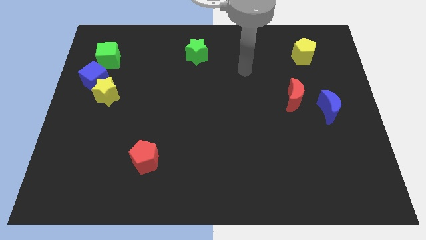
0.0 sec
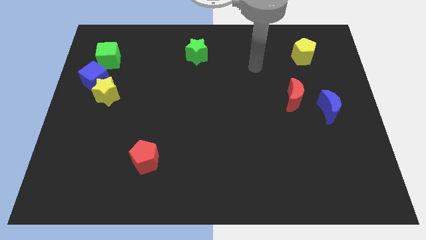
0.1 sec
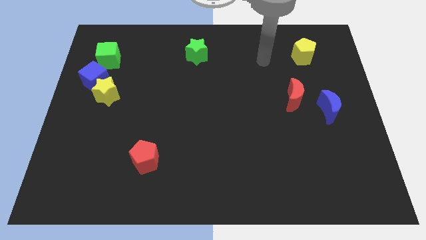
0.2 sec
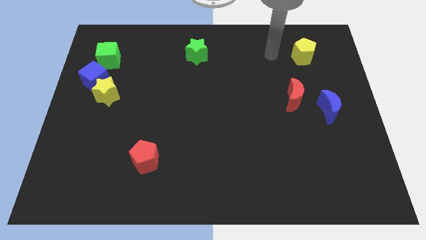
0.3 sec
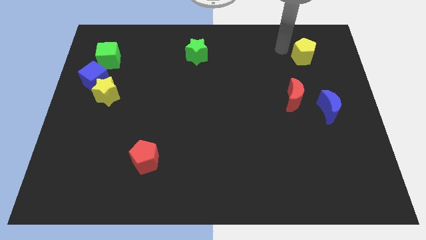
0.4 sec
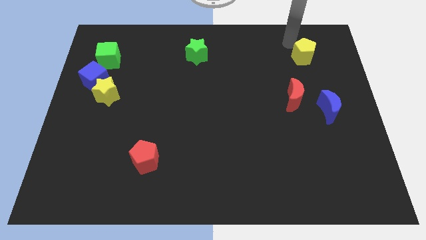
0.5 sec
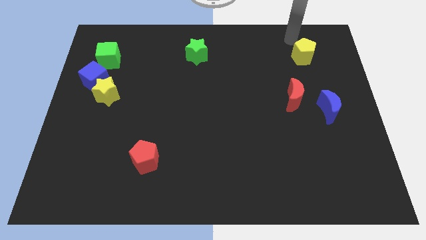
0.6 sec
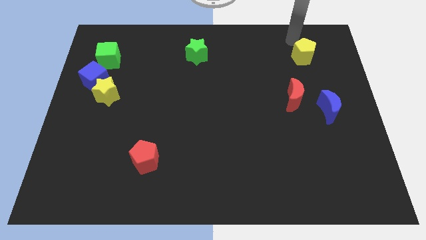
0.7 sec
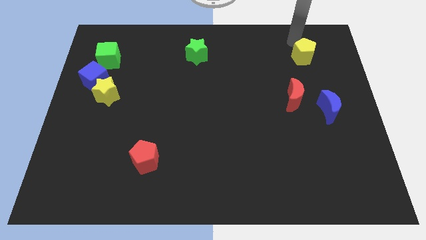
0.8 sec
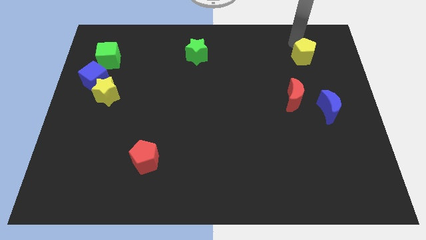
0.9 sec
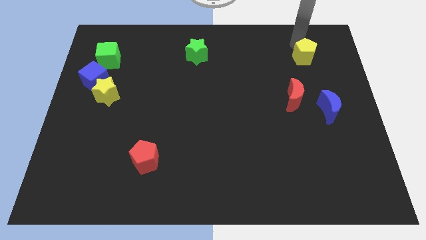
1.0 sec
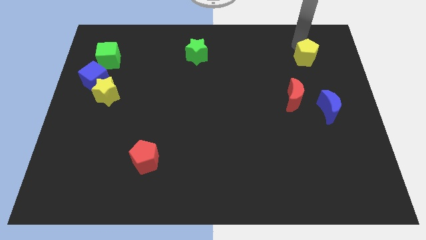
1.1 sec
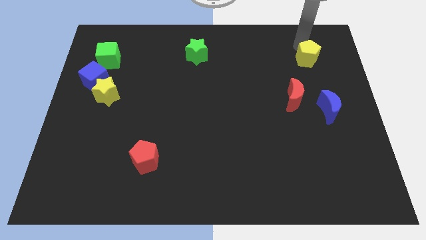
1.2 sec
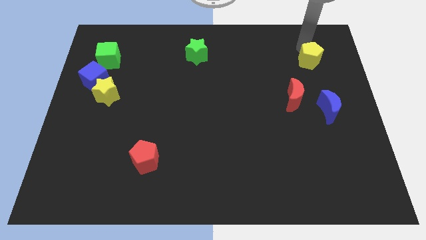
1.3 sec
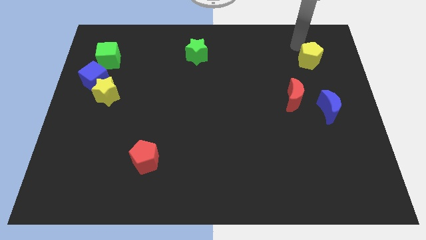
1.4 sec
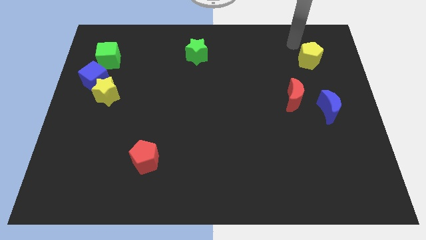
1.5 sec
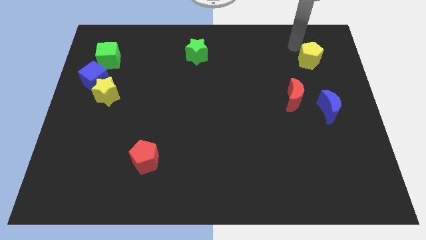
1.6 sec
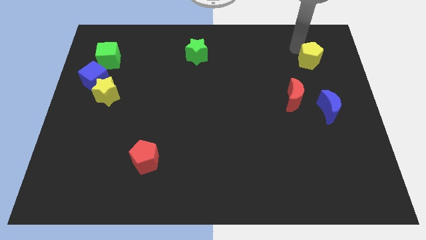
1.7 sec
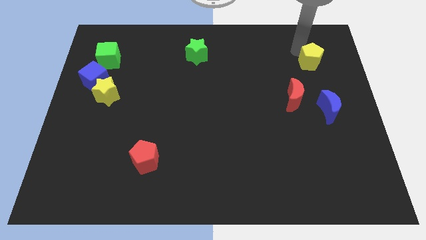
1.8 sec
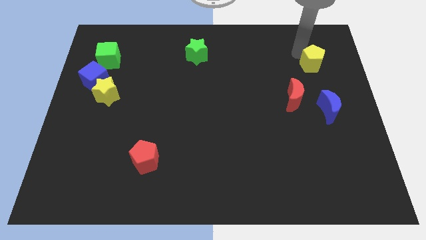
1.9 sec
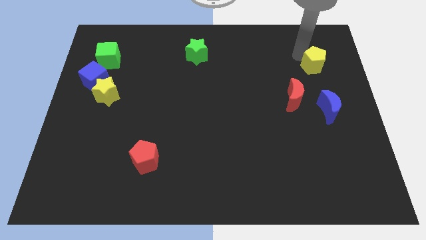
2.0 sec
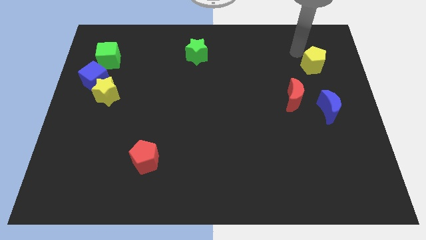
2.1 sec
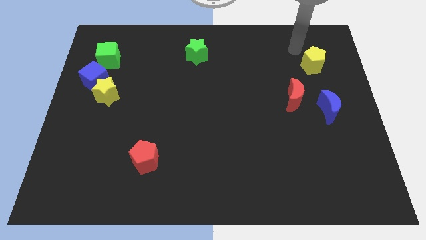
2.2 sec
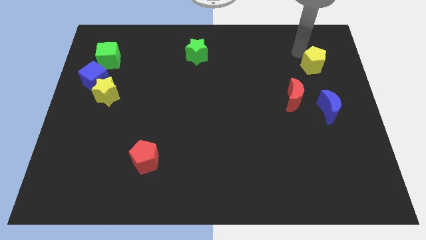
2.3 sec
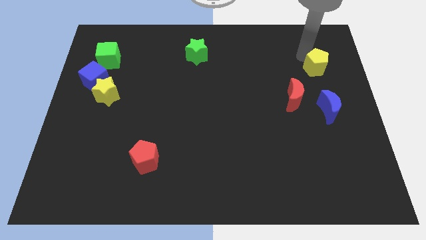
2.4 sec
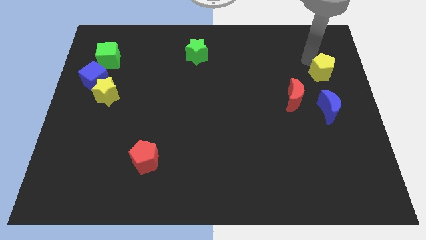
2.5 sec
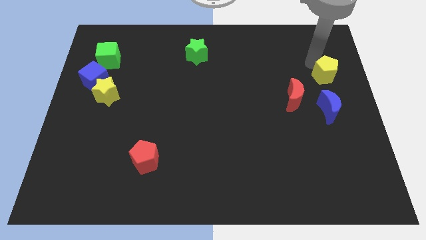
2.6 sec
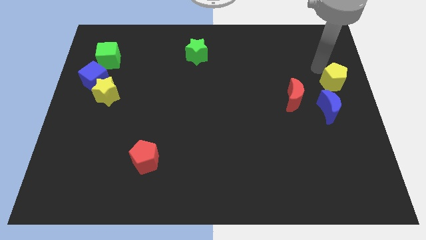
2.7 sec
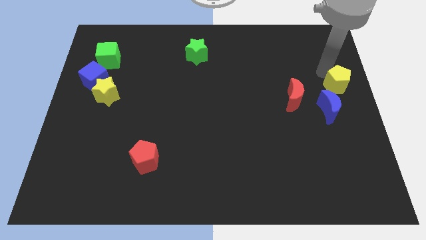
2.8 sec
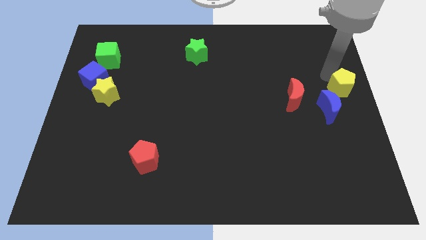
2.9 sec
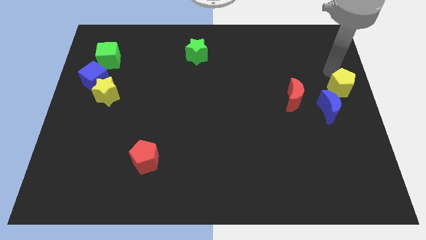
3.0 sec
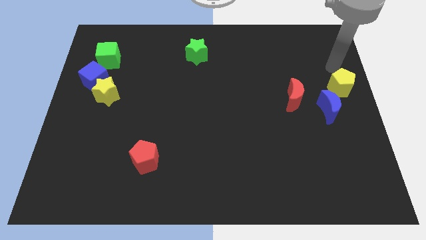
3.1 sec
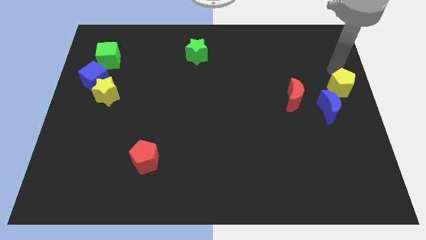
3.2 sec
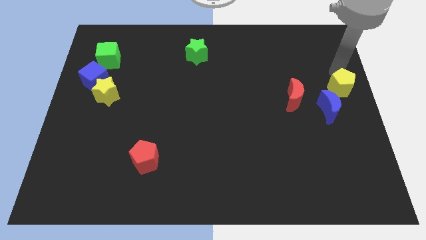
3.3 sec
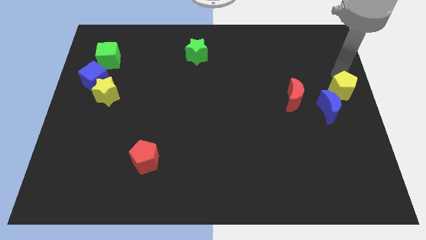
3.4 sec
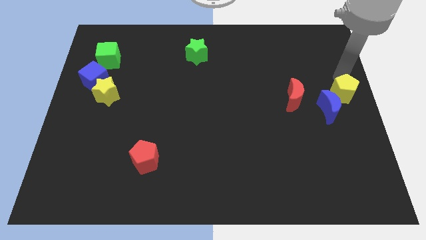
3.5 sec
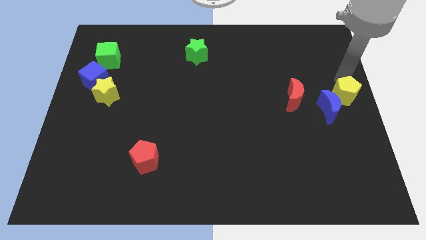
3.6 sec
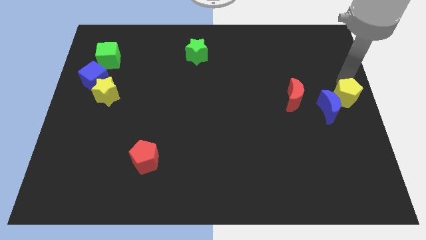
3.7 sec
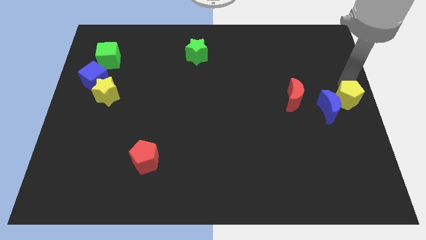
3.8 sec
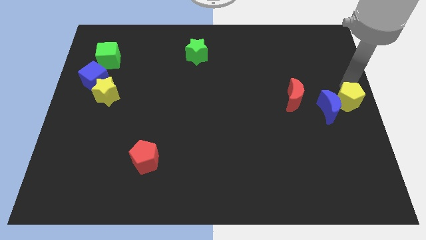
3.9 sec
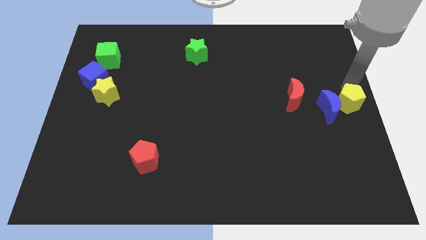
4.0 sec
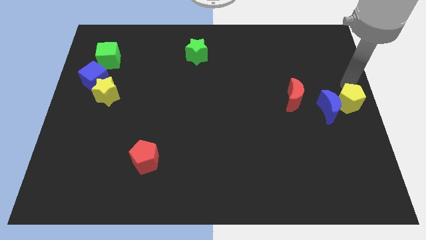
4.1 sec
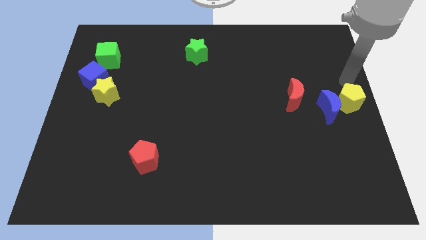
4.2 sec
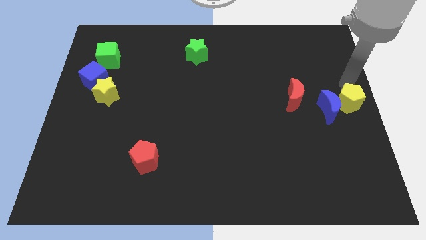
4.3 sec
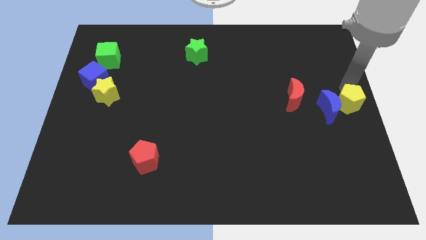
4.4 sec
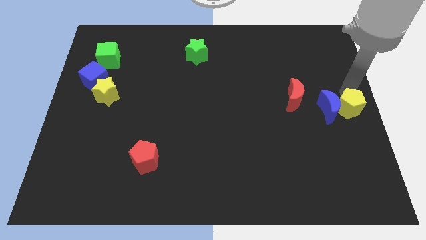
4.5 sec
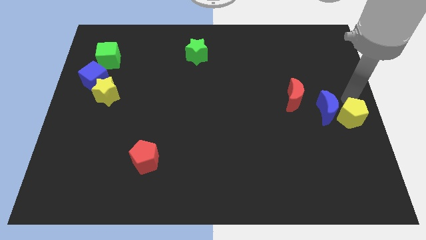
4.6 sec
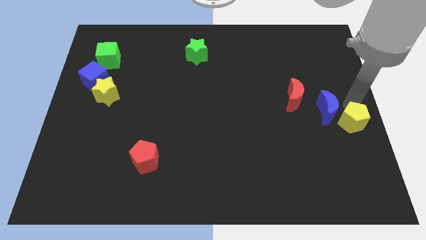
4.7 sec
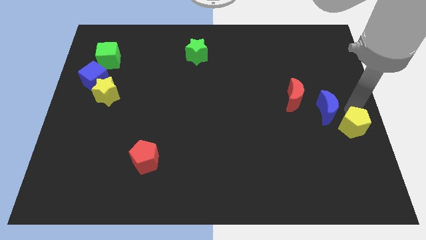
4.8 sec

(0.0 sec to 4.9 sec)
move the yellow pentagon downwards

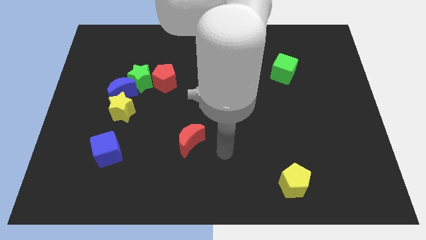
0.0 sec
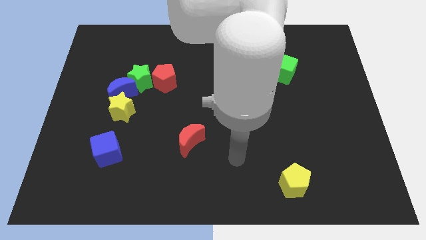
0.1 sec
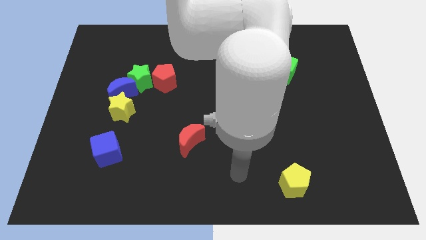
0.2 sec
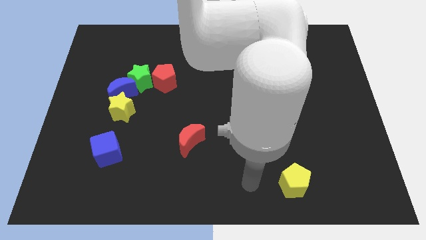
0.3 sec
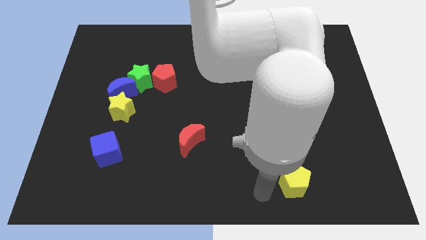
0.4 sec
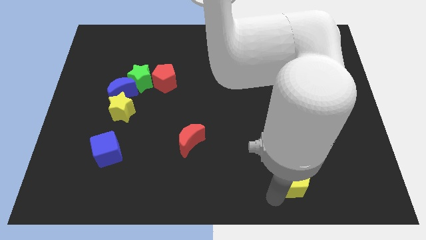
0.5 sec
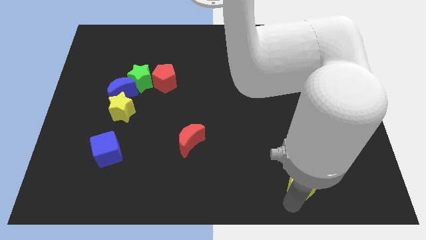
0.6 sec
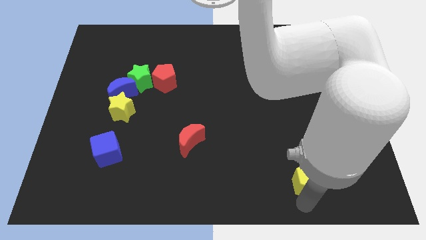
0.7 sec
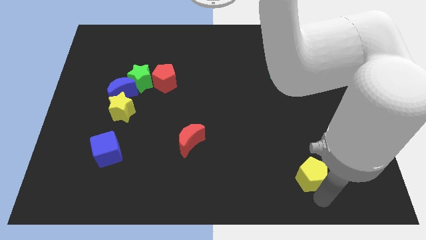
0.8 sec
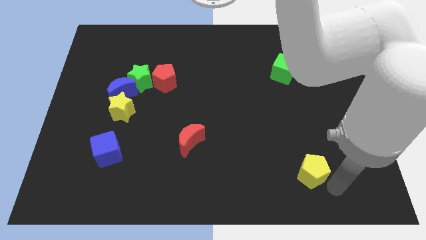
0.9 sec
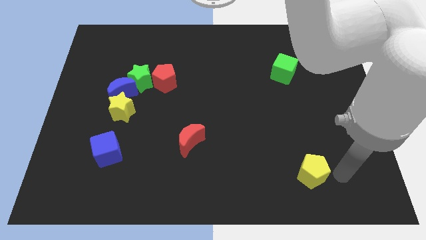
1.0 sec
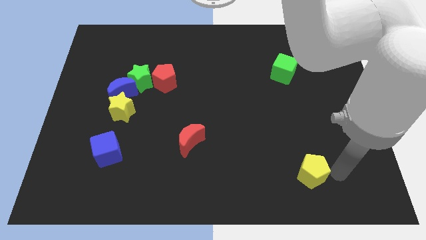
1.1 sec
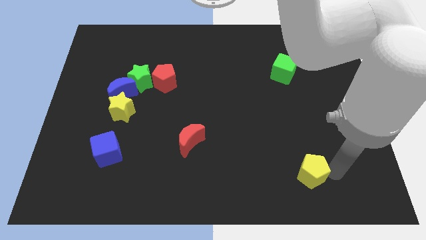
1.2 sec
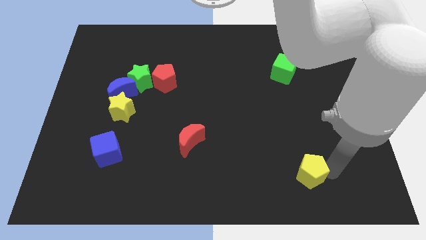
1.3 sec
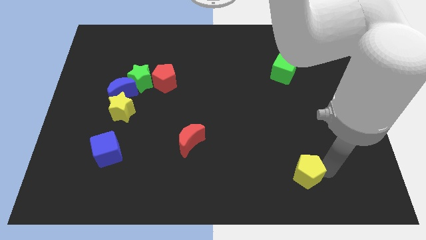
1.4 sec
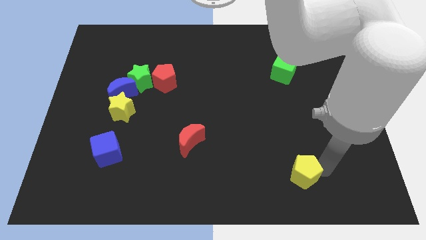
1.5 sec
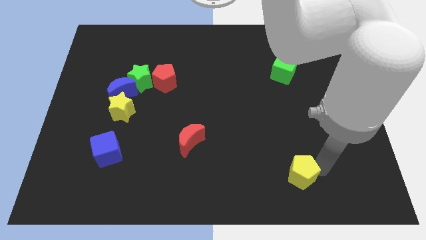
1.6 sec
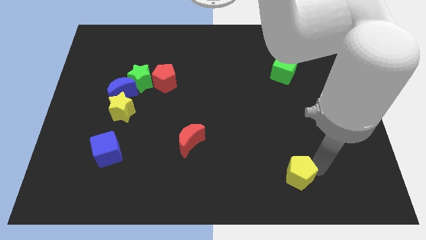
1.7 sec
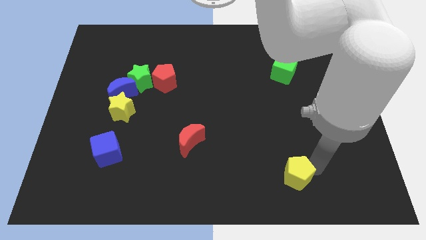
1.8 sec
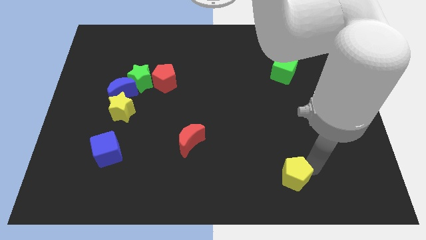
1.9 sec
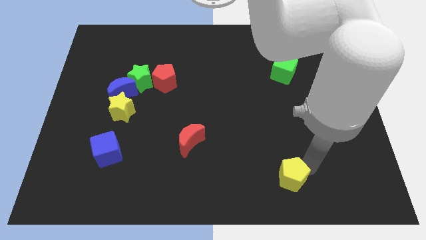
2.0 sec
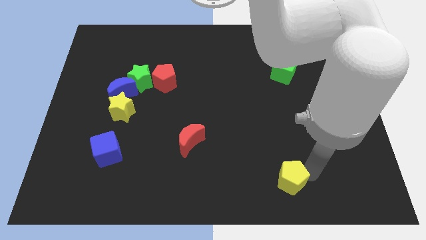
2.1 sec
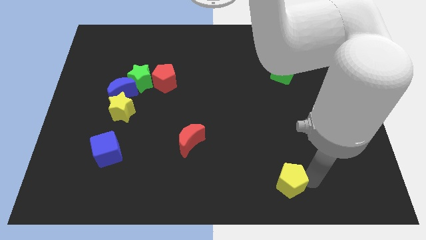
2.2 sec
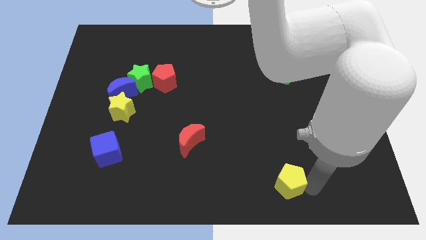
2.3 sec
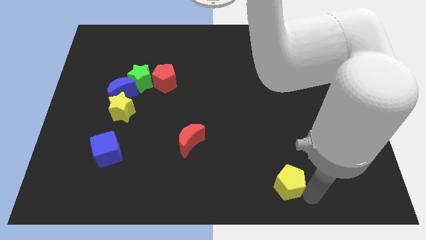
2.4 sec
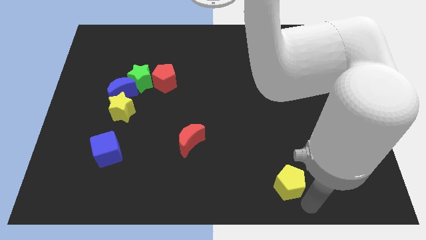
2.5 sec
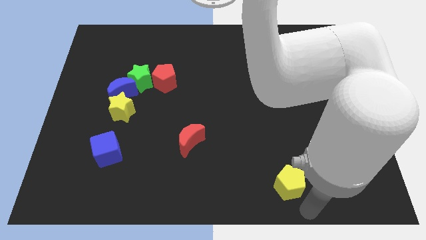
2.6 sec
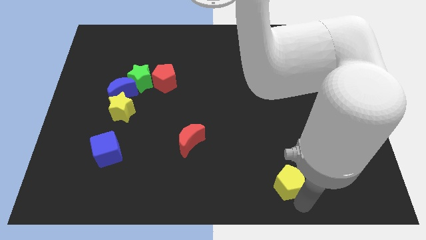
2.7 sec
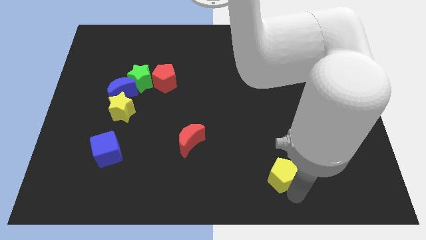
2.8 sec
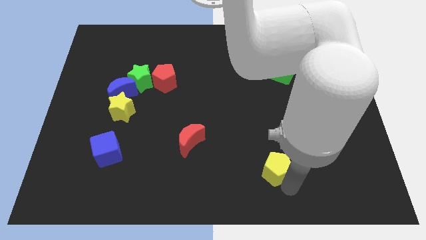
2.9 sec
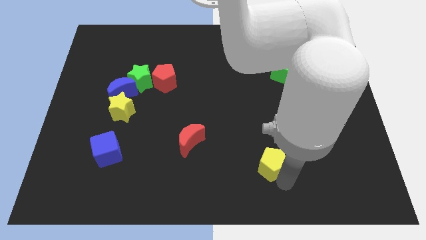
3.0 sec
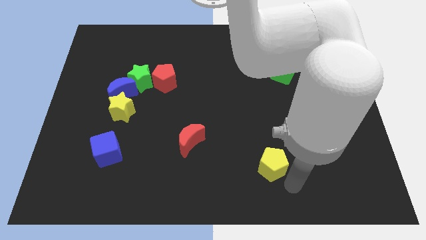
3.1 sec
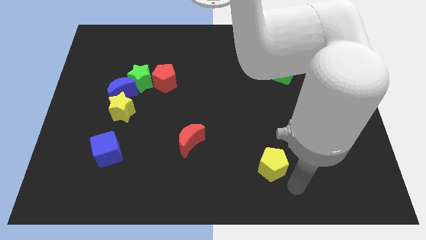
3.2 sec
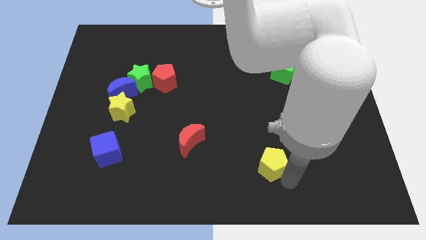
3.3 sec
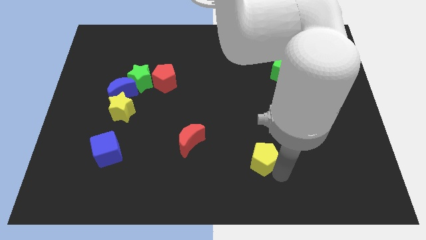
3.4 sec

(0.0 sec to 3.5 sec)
push the yellow pentagon somewhat upwards and then to the left
